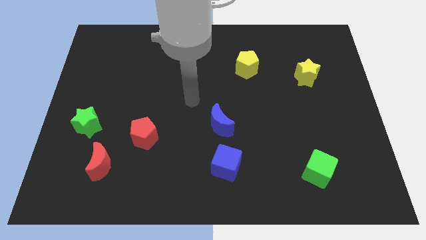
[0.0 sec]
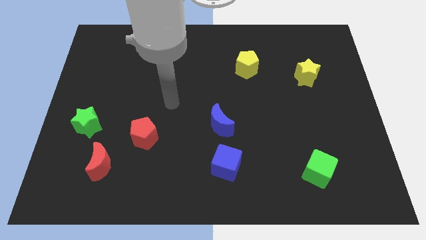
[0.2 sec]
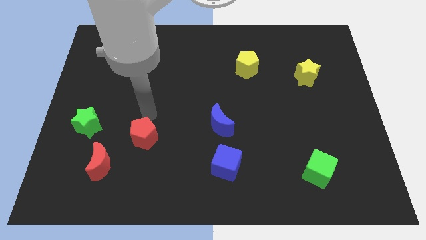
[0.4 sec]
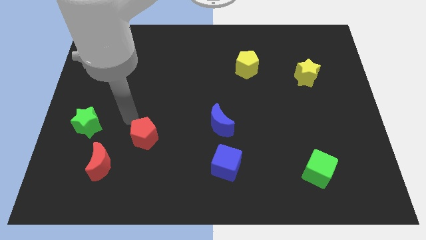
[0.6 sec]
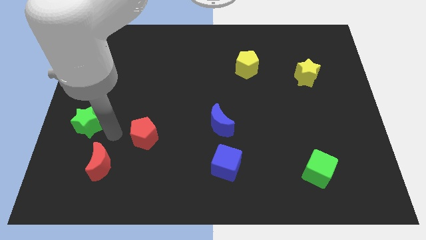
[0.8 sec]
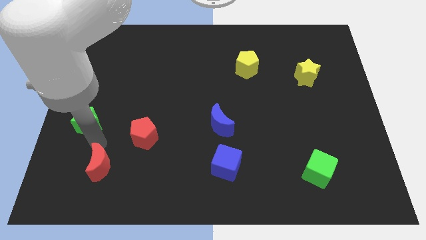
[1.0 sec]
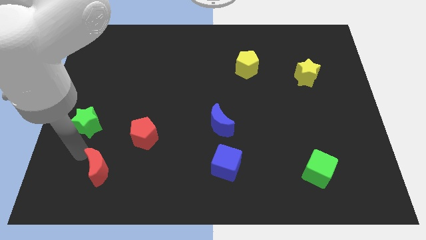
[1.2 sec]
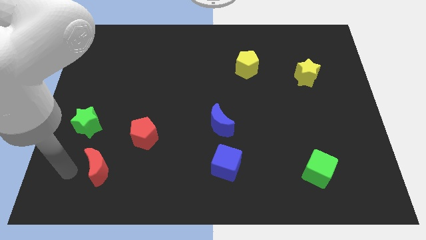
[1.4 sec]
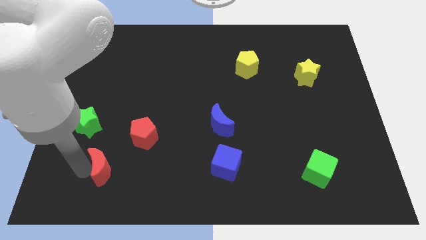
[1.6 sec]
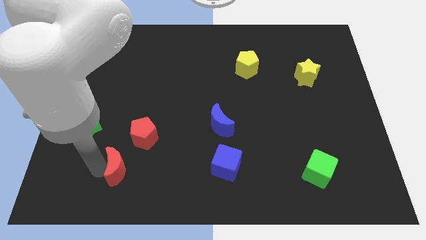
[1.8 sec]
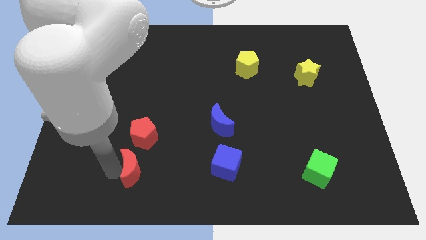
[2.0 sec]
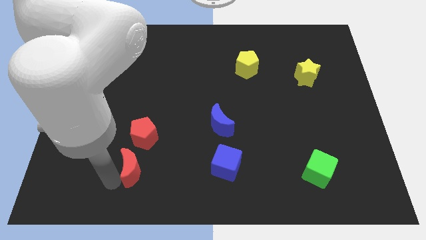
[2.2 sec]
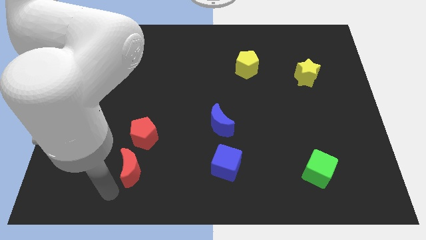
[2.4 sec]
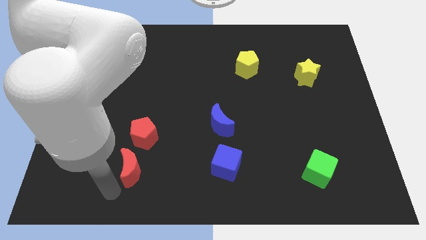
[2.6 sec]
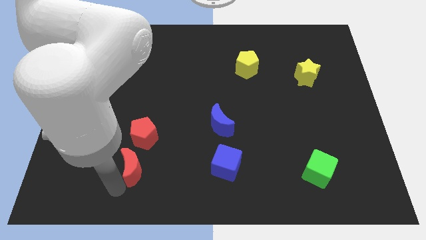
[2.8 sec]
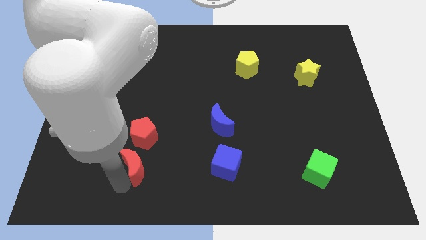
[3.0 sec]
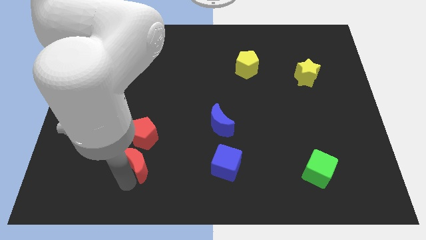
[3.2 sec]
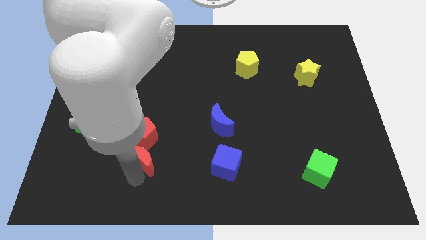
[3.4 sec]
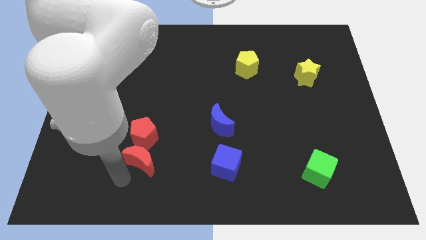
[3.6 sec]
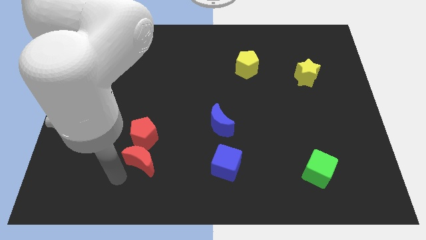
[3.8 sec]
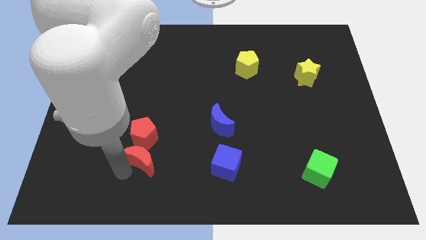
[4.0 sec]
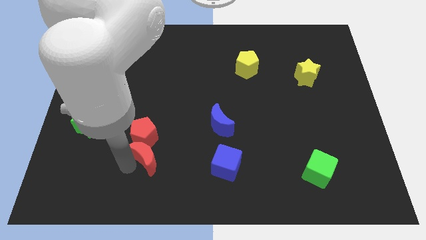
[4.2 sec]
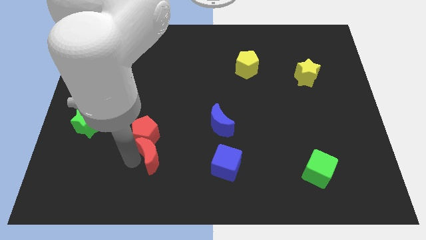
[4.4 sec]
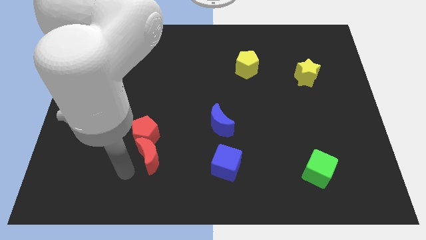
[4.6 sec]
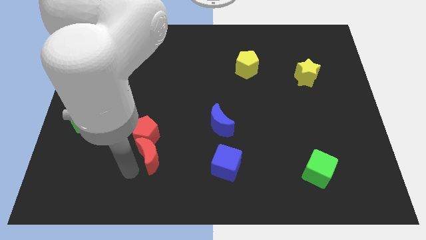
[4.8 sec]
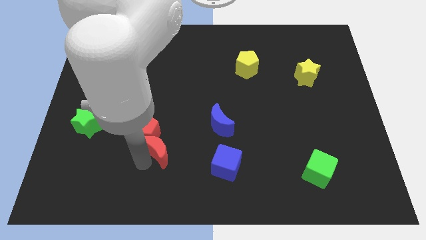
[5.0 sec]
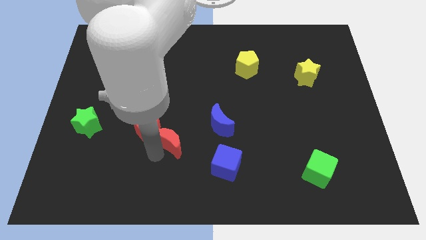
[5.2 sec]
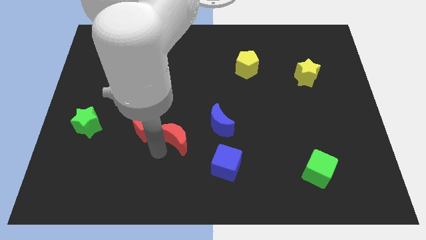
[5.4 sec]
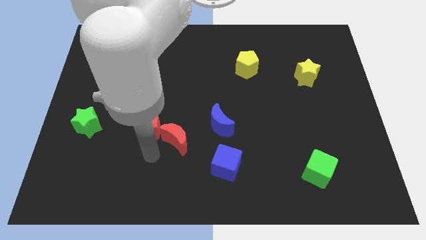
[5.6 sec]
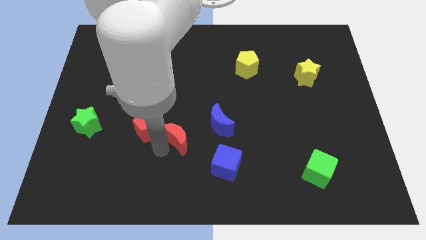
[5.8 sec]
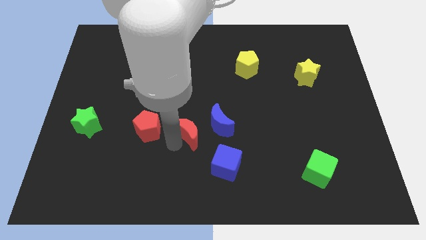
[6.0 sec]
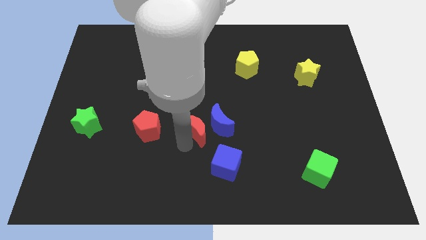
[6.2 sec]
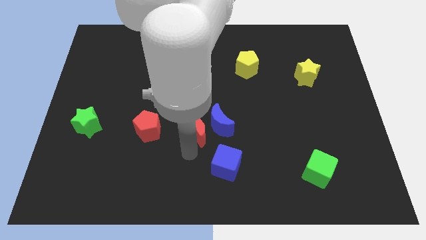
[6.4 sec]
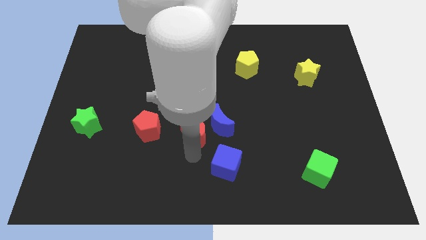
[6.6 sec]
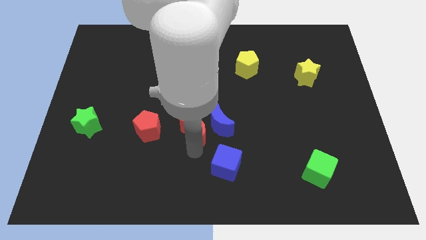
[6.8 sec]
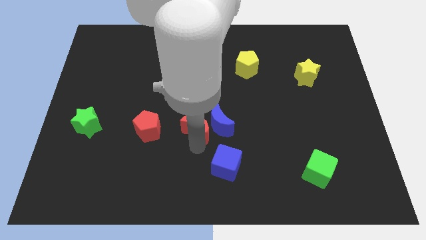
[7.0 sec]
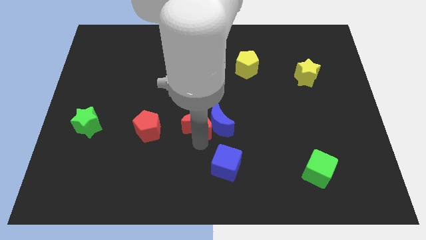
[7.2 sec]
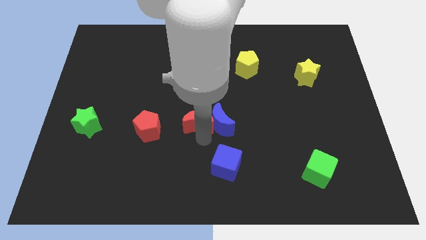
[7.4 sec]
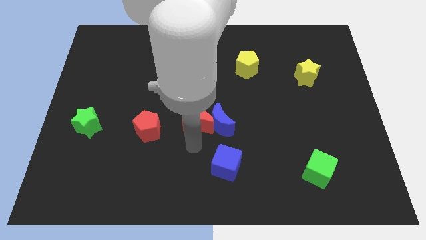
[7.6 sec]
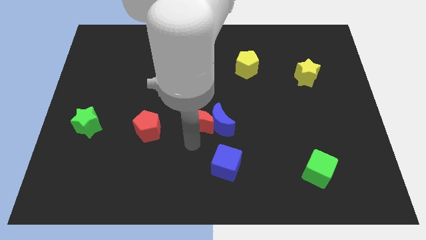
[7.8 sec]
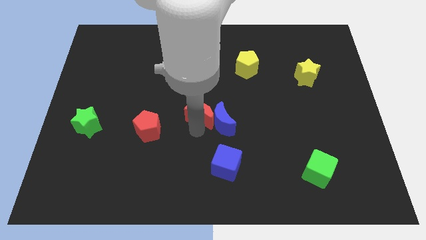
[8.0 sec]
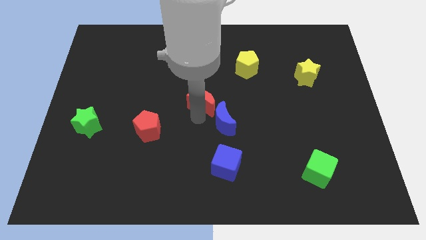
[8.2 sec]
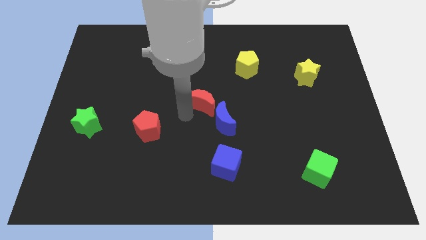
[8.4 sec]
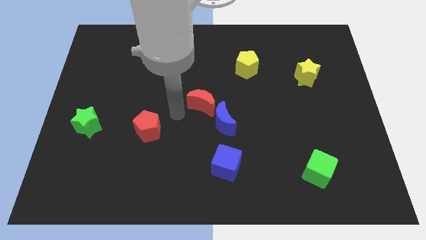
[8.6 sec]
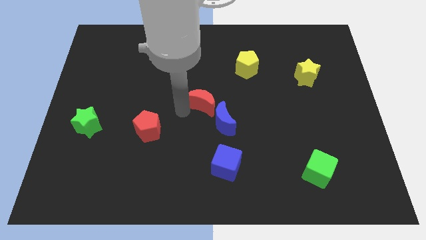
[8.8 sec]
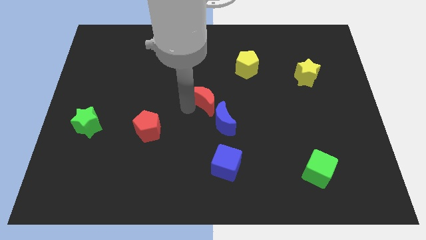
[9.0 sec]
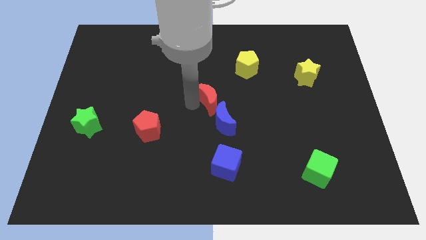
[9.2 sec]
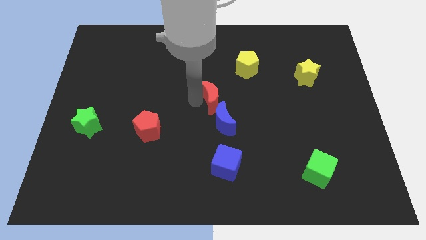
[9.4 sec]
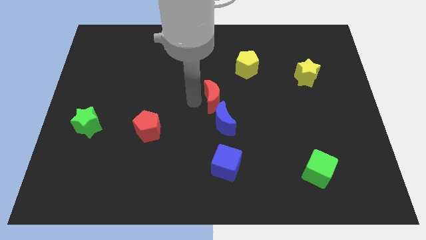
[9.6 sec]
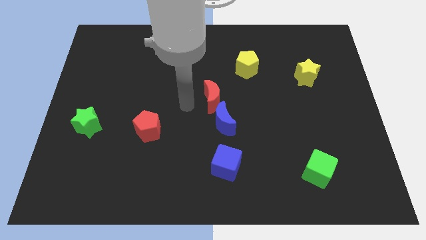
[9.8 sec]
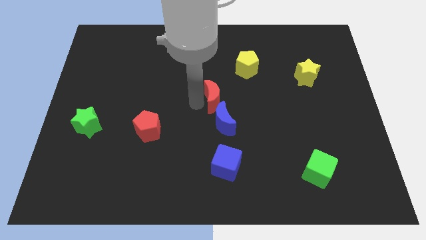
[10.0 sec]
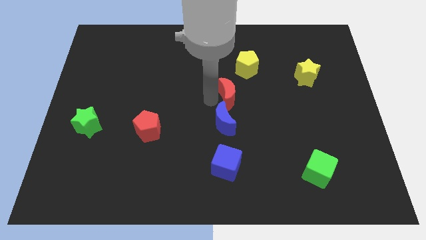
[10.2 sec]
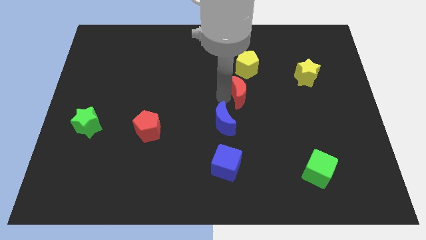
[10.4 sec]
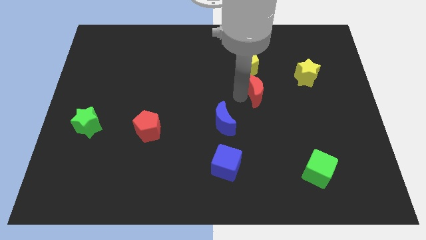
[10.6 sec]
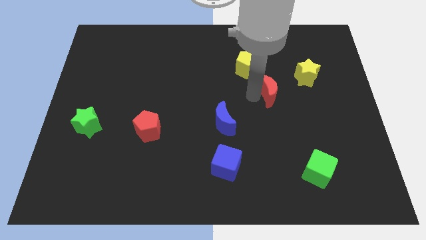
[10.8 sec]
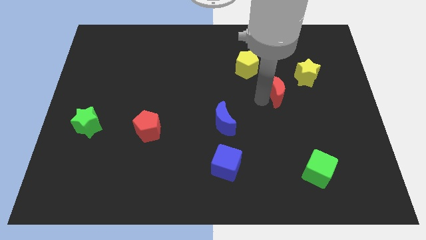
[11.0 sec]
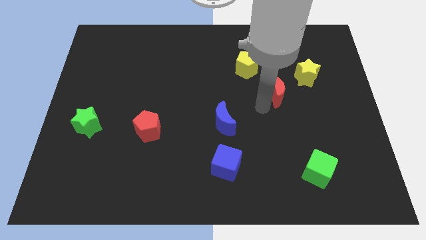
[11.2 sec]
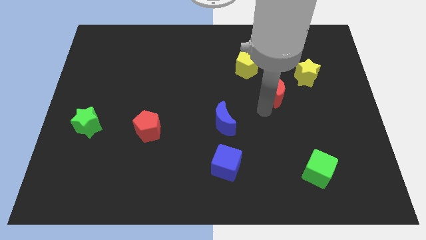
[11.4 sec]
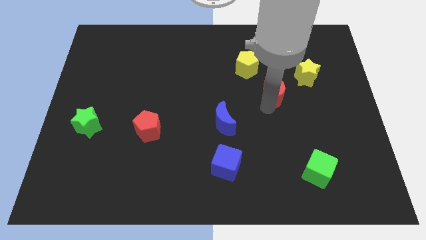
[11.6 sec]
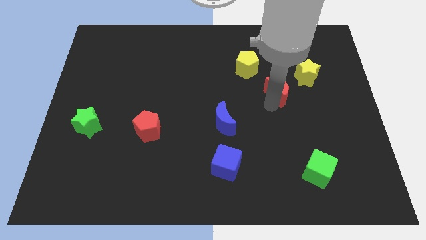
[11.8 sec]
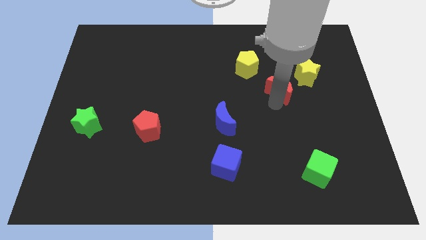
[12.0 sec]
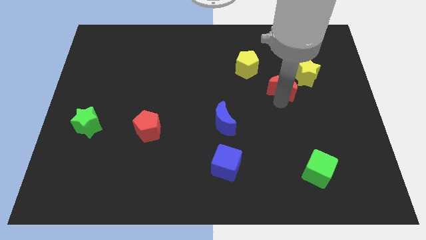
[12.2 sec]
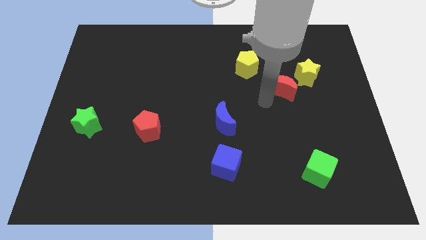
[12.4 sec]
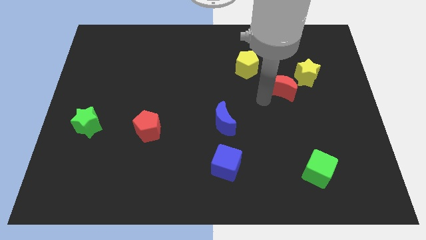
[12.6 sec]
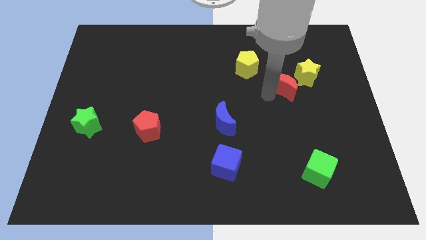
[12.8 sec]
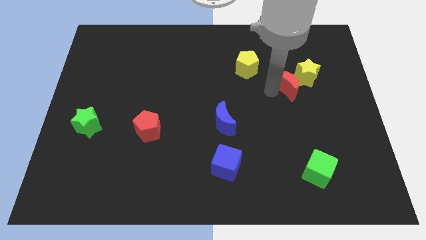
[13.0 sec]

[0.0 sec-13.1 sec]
push the red moon to the yellow star

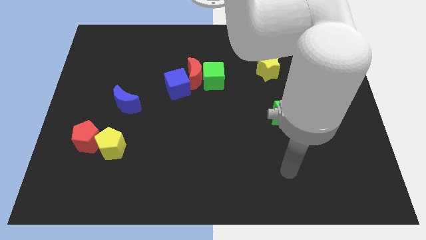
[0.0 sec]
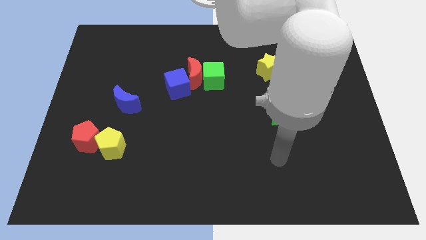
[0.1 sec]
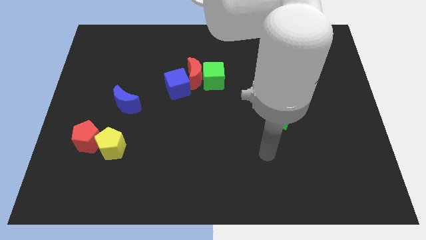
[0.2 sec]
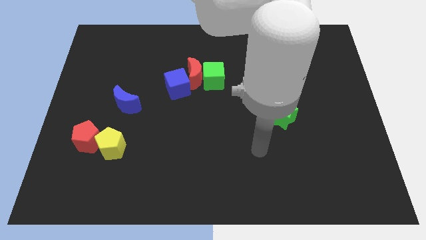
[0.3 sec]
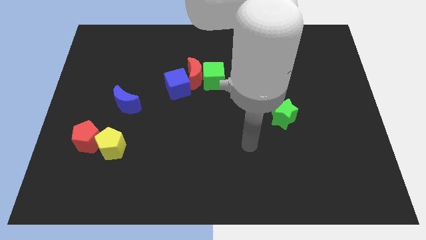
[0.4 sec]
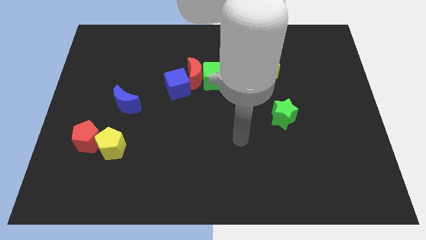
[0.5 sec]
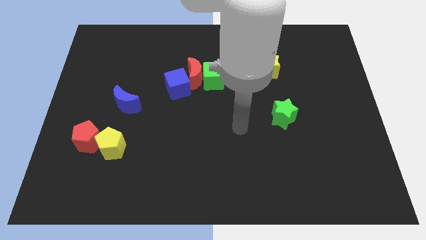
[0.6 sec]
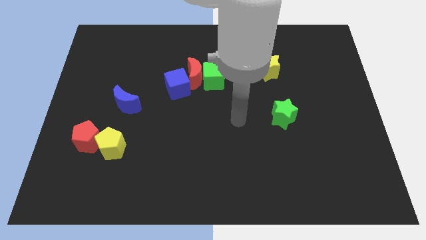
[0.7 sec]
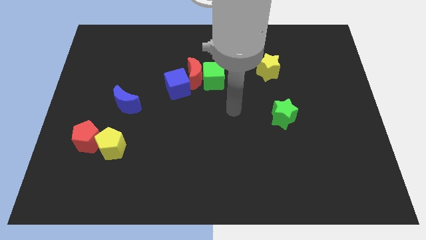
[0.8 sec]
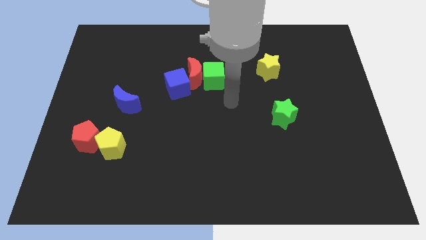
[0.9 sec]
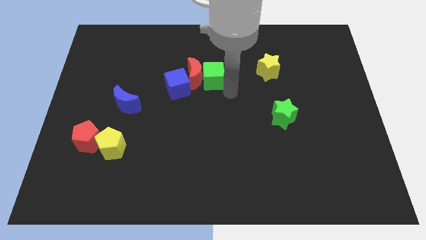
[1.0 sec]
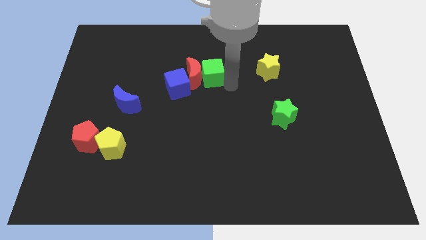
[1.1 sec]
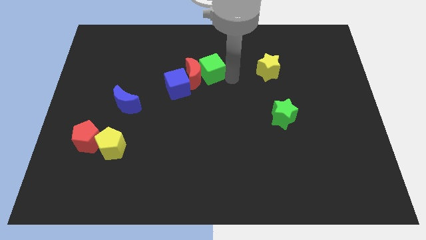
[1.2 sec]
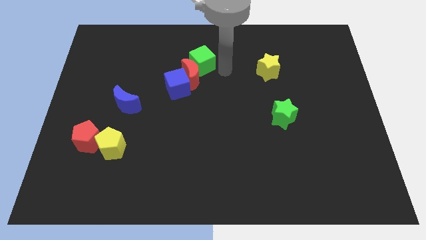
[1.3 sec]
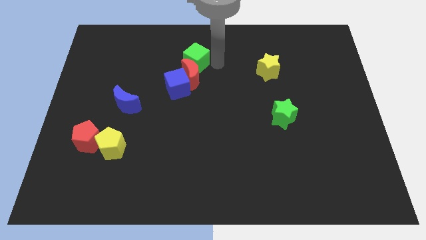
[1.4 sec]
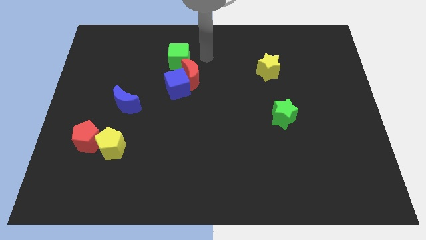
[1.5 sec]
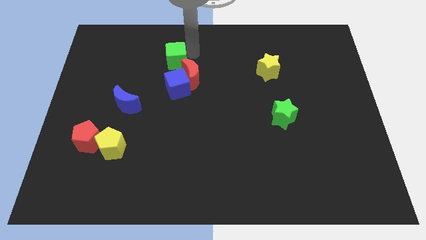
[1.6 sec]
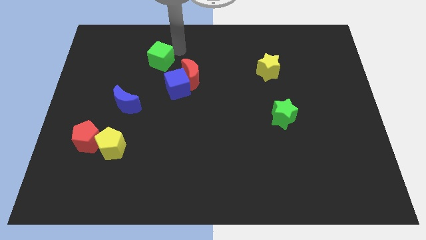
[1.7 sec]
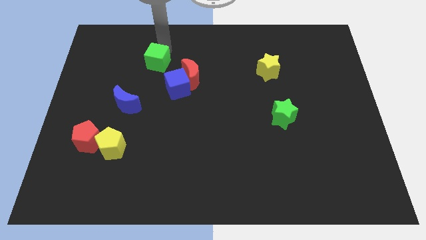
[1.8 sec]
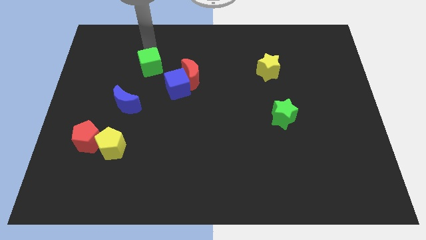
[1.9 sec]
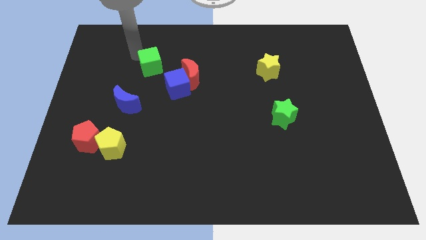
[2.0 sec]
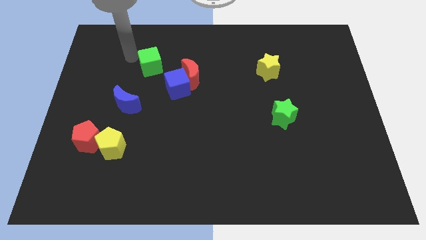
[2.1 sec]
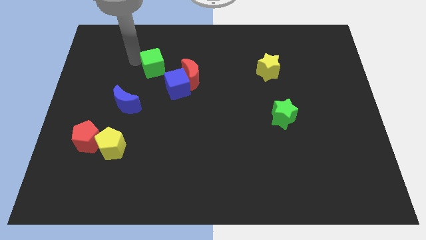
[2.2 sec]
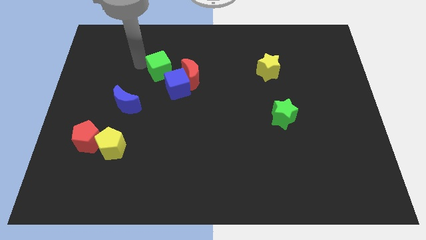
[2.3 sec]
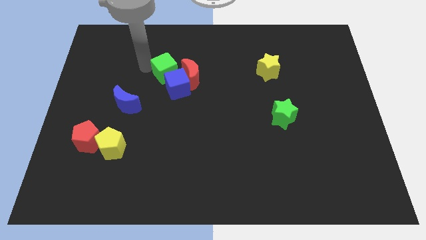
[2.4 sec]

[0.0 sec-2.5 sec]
push the green cube towards the blue cube
